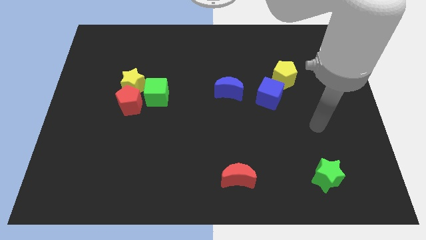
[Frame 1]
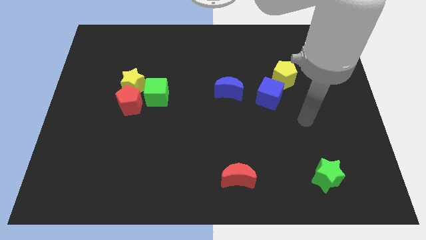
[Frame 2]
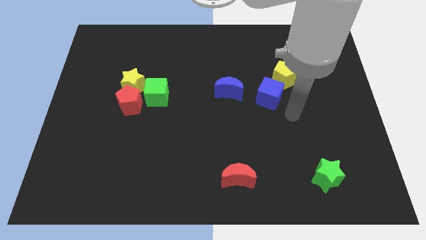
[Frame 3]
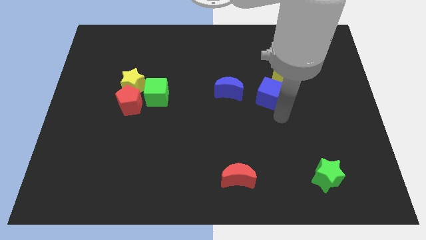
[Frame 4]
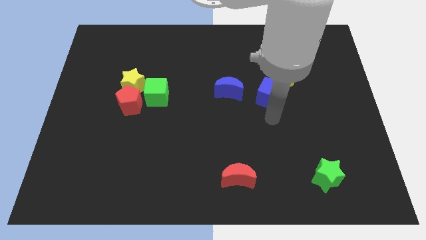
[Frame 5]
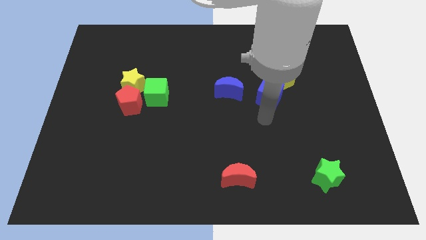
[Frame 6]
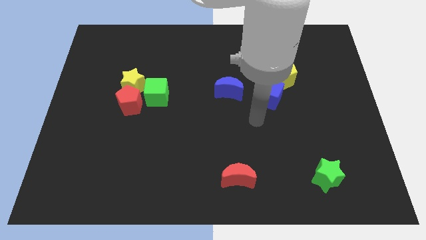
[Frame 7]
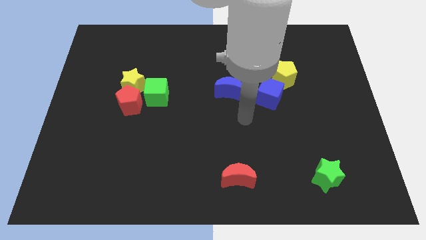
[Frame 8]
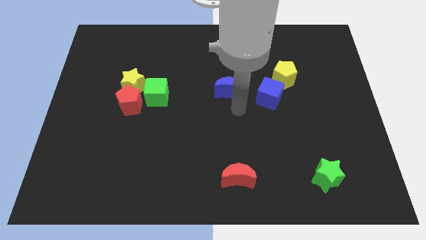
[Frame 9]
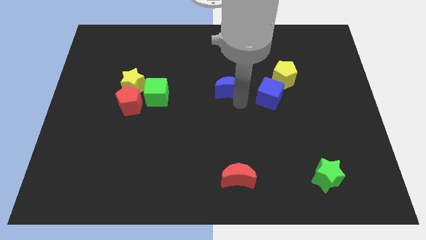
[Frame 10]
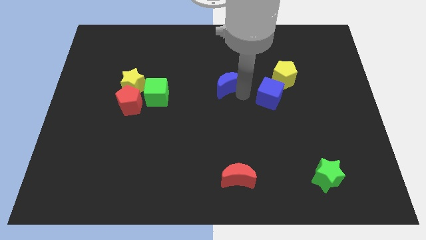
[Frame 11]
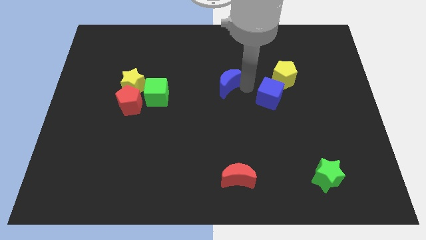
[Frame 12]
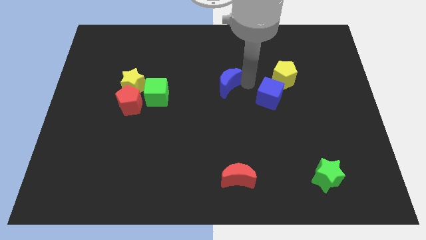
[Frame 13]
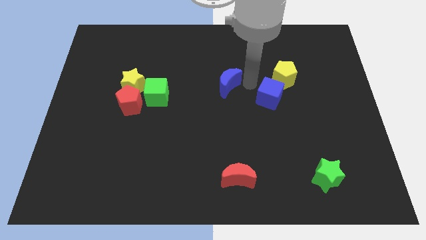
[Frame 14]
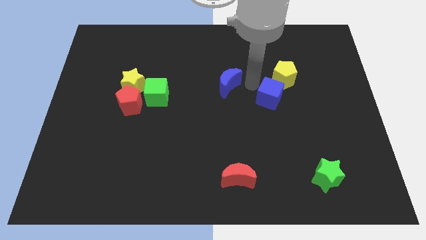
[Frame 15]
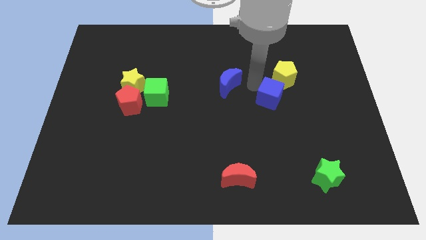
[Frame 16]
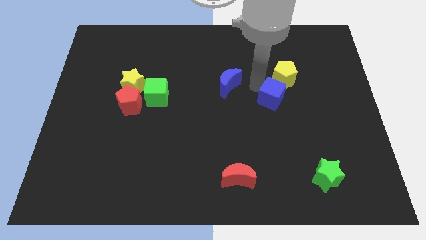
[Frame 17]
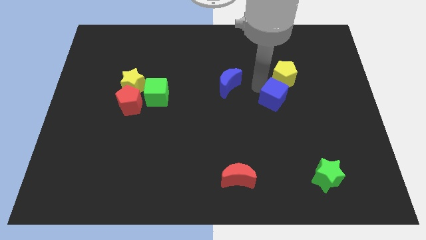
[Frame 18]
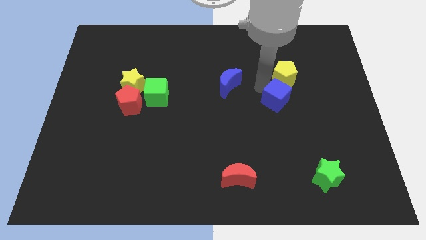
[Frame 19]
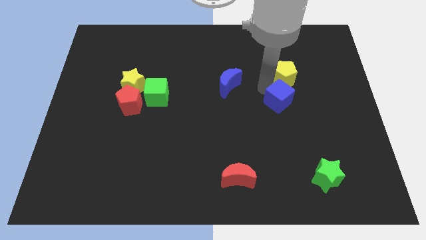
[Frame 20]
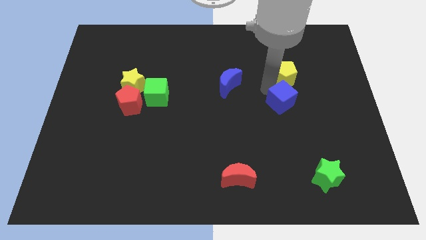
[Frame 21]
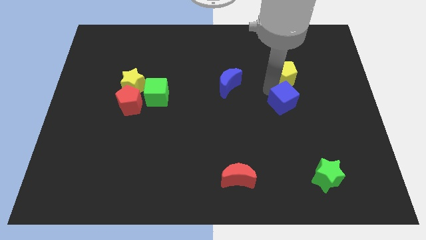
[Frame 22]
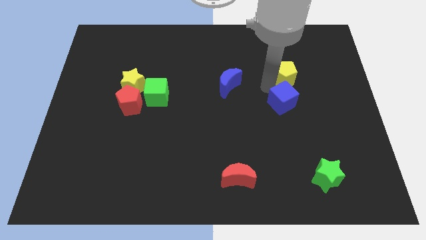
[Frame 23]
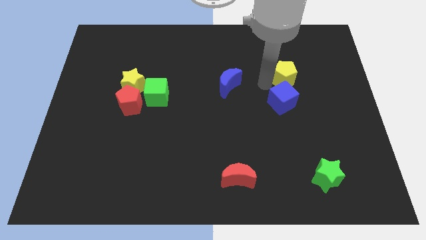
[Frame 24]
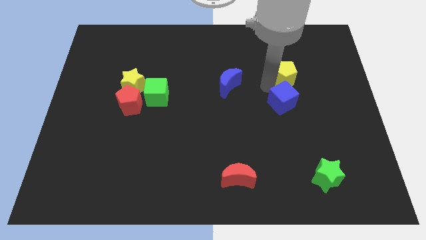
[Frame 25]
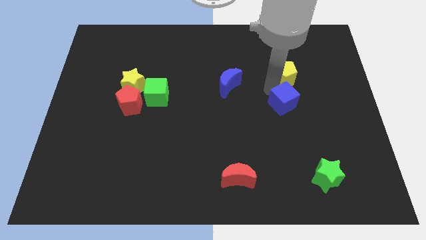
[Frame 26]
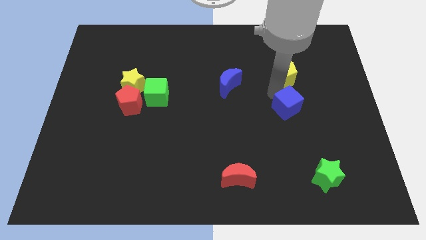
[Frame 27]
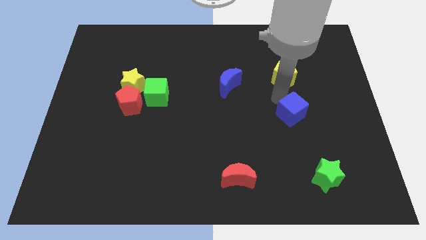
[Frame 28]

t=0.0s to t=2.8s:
push the blue cube down and right diagonally a little bit

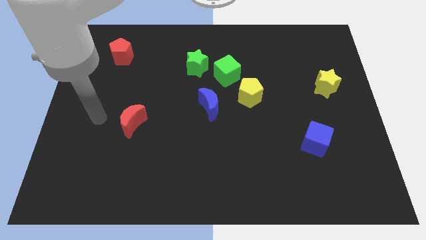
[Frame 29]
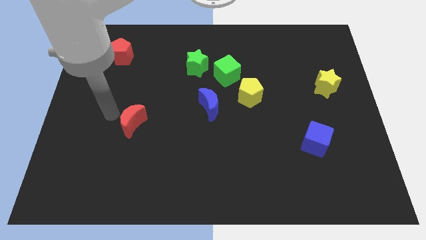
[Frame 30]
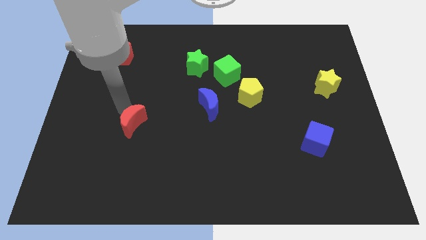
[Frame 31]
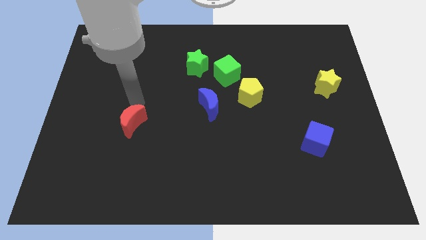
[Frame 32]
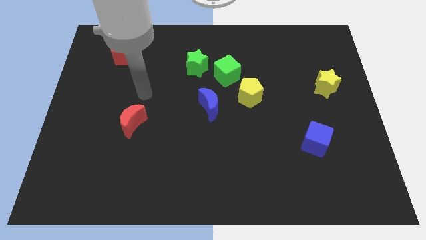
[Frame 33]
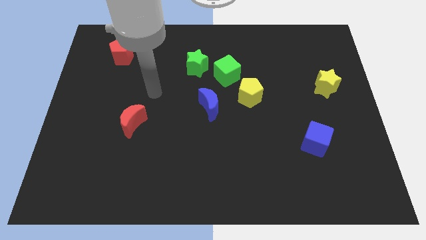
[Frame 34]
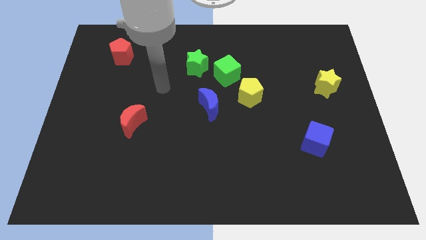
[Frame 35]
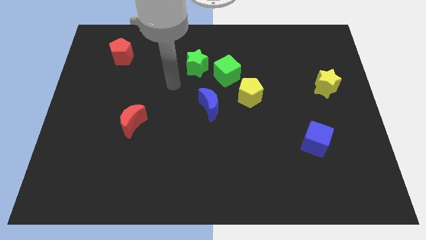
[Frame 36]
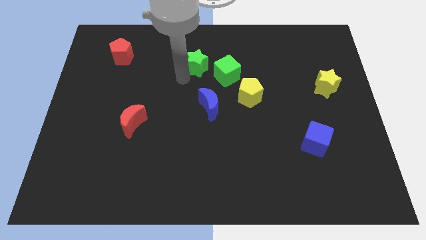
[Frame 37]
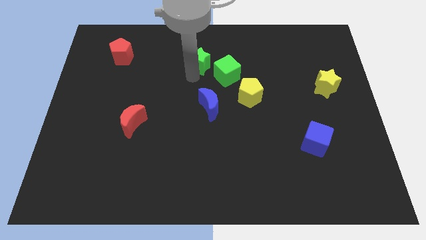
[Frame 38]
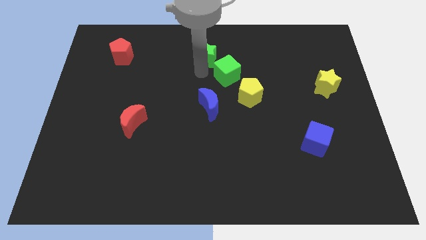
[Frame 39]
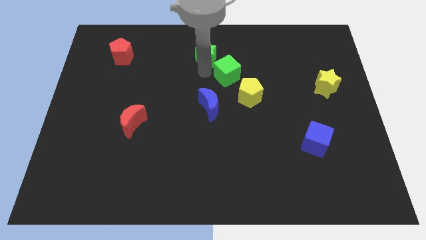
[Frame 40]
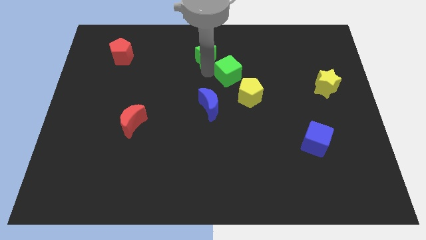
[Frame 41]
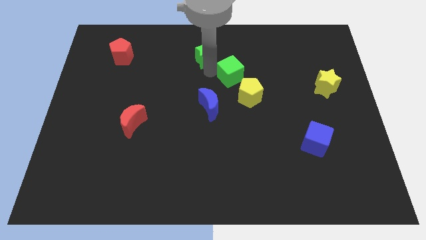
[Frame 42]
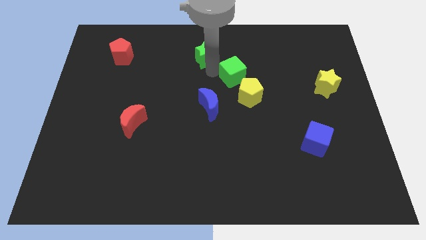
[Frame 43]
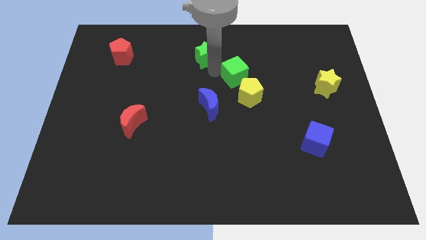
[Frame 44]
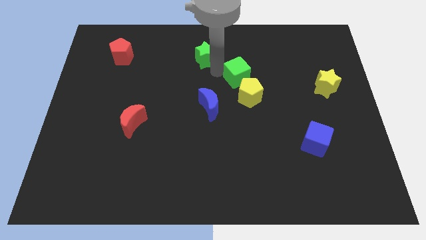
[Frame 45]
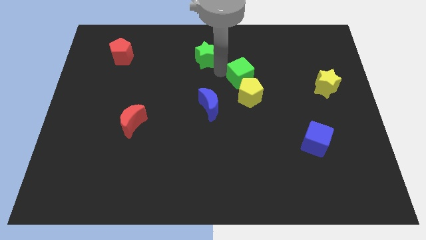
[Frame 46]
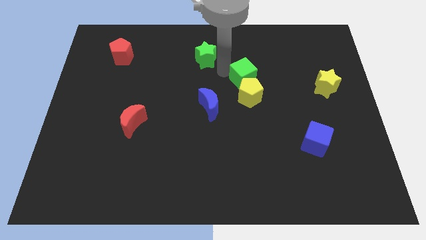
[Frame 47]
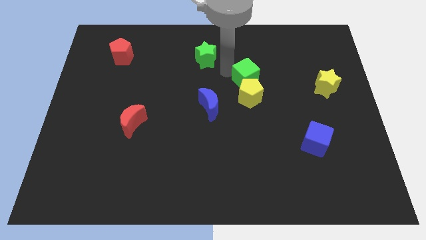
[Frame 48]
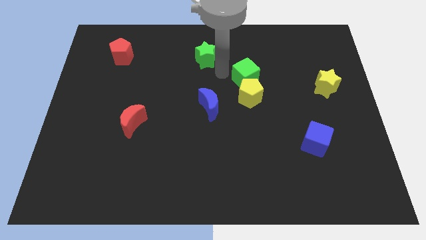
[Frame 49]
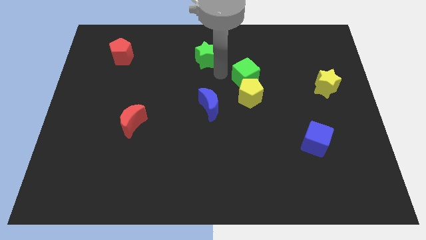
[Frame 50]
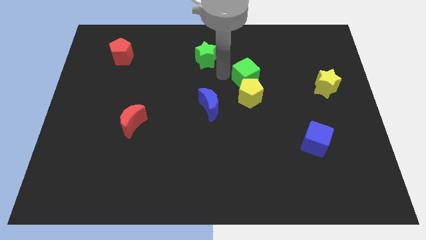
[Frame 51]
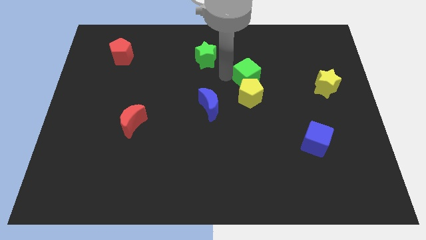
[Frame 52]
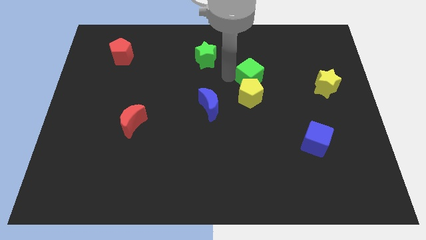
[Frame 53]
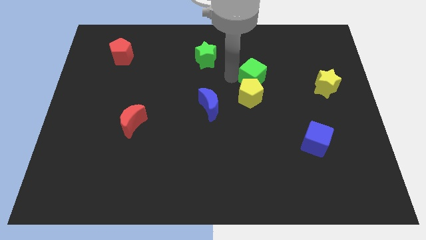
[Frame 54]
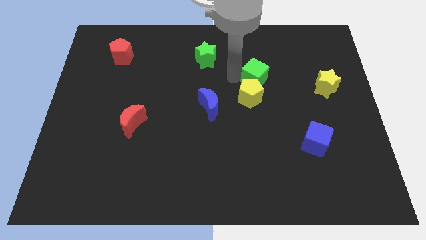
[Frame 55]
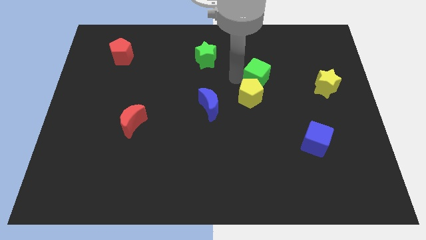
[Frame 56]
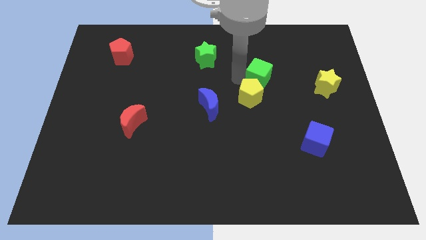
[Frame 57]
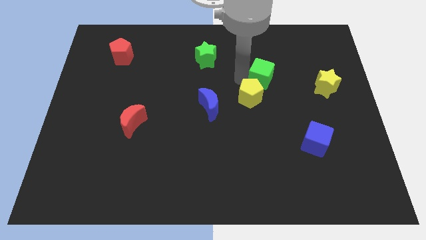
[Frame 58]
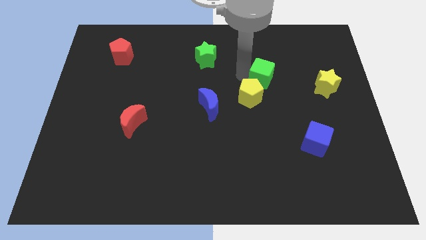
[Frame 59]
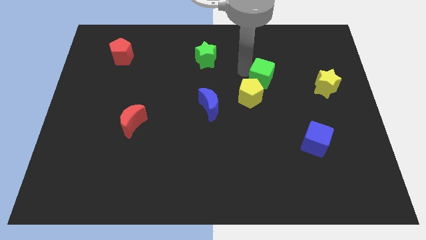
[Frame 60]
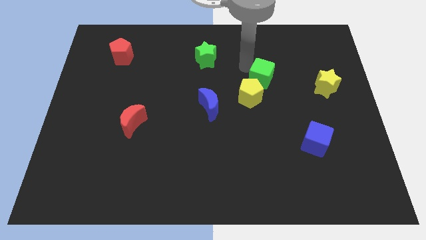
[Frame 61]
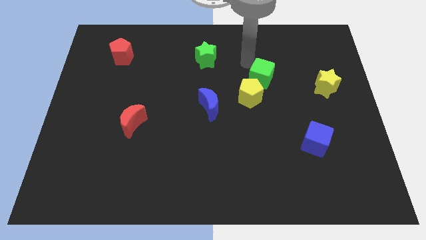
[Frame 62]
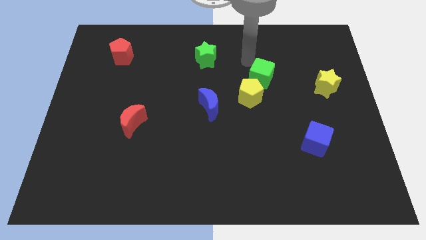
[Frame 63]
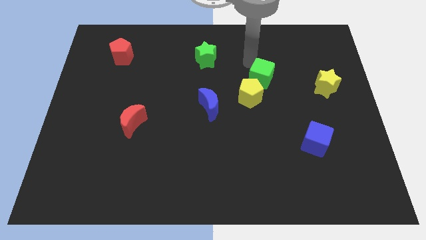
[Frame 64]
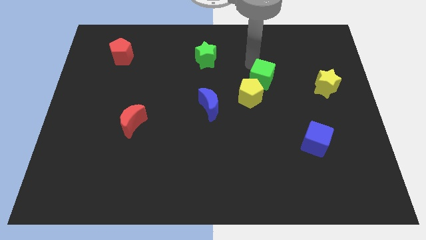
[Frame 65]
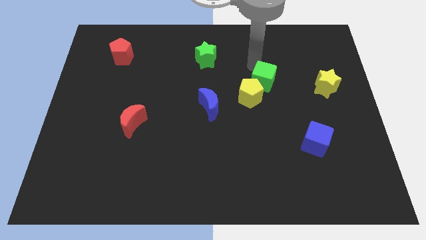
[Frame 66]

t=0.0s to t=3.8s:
slide the green cube downwards and then right a little bit

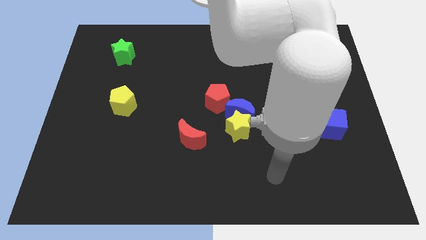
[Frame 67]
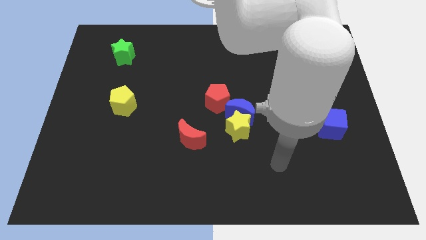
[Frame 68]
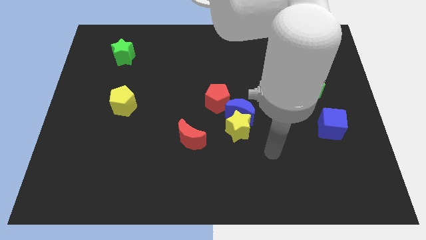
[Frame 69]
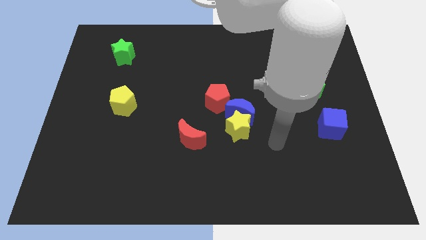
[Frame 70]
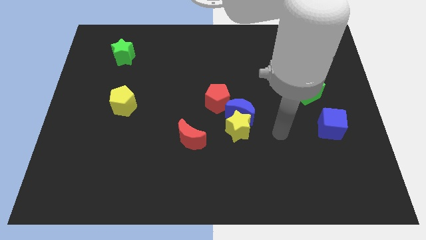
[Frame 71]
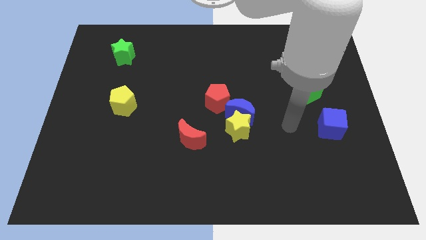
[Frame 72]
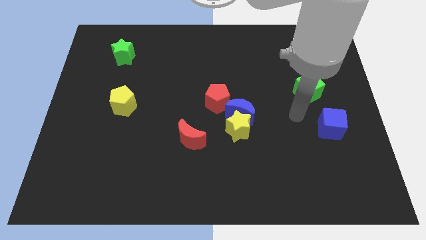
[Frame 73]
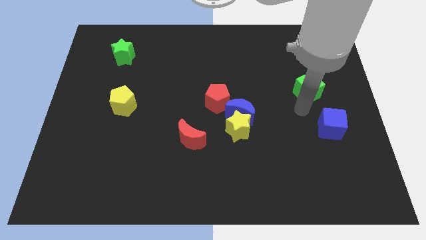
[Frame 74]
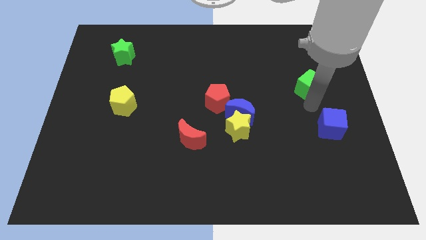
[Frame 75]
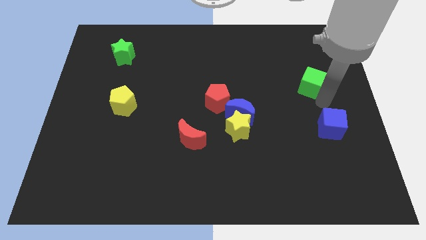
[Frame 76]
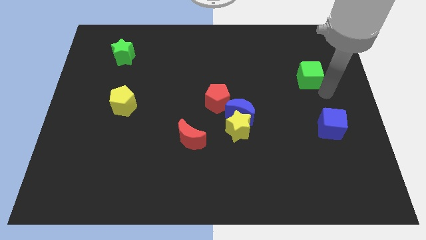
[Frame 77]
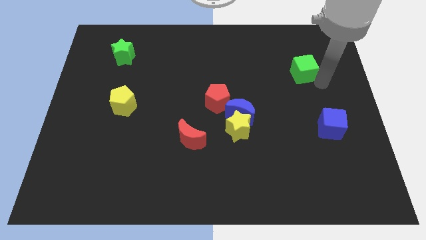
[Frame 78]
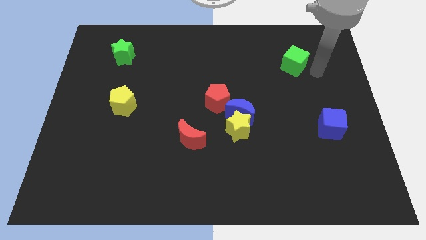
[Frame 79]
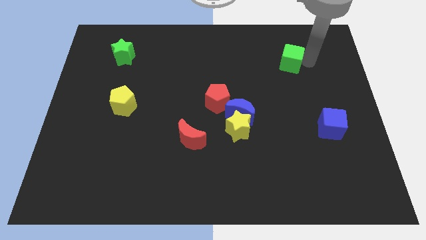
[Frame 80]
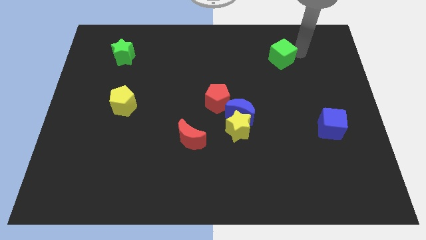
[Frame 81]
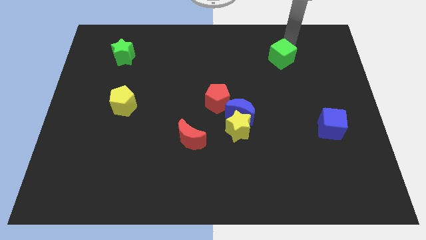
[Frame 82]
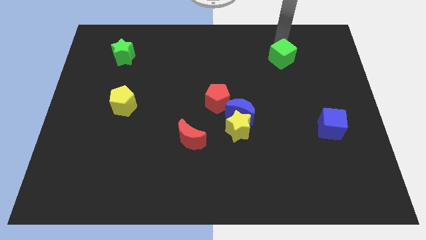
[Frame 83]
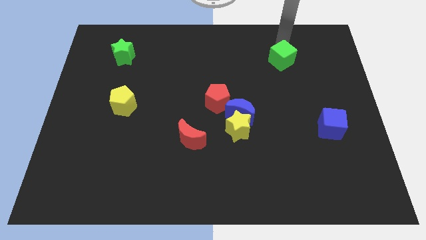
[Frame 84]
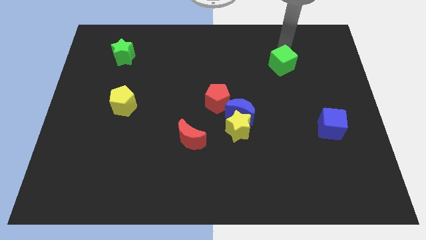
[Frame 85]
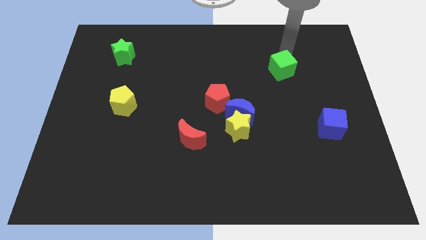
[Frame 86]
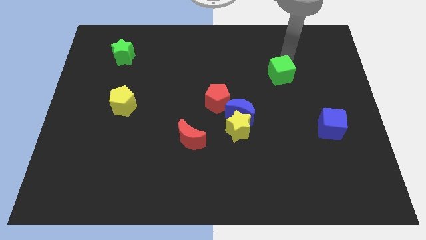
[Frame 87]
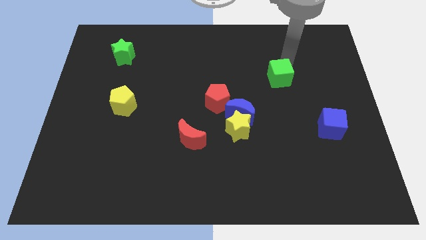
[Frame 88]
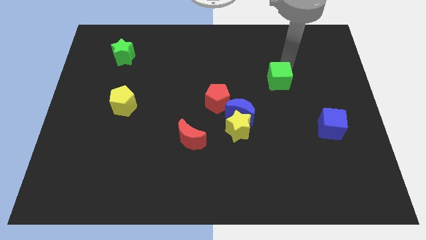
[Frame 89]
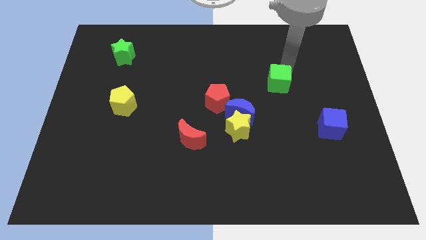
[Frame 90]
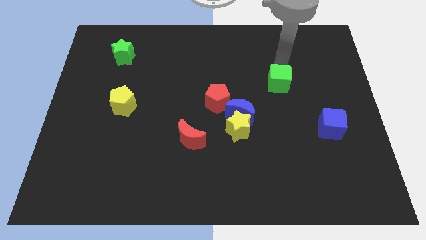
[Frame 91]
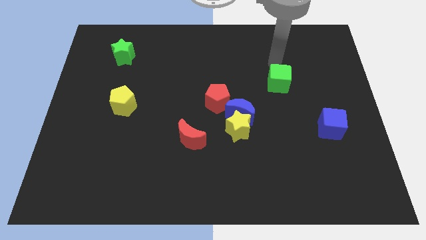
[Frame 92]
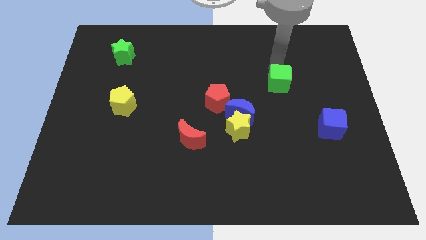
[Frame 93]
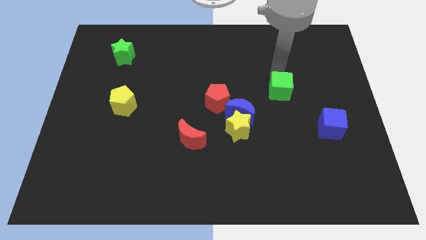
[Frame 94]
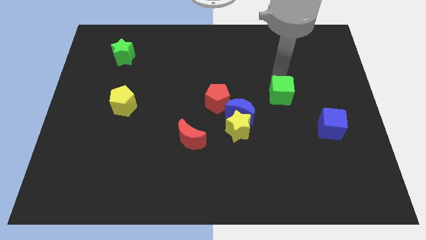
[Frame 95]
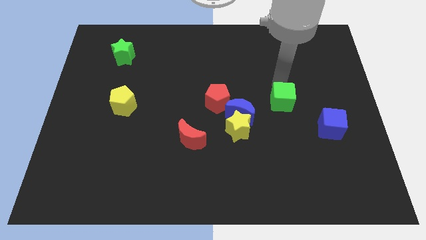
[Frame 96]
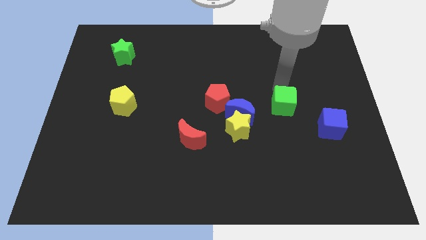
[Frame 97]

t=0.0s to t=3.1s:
move the green cube a little bit diagonally down and to the left
